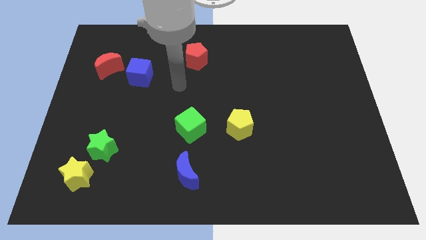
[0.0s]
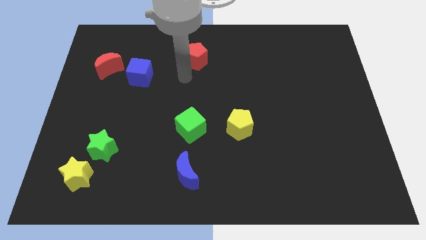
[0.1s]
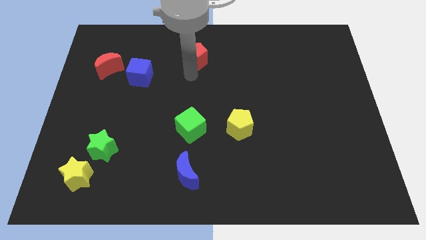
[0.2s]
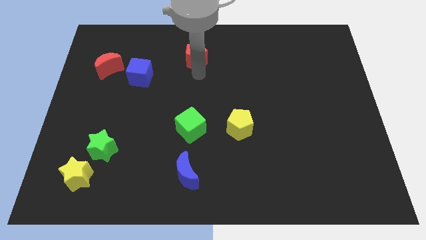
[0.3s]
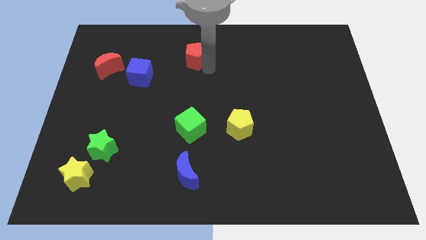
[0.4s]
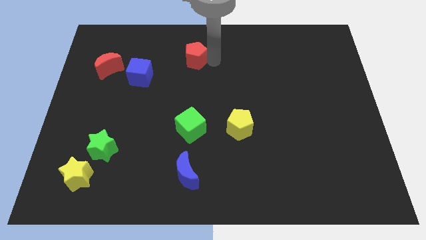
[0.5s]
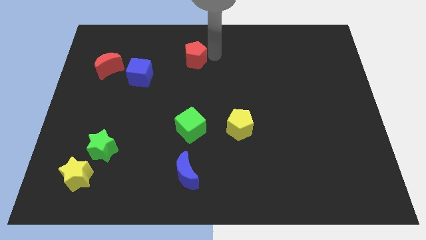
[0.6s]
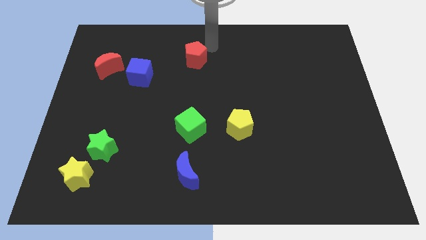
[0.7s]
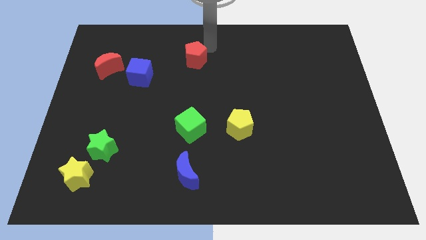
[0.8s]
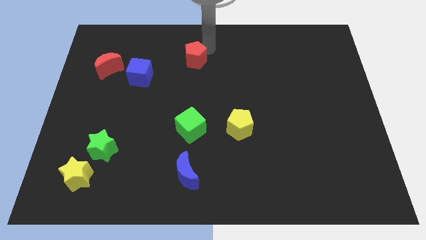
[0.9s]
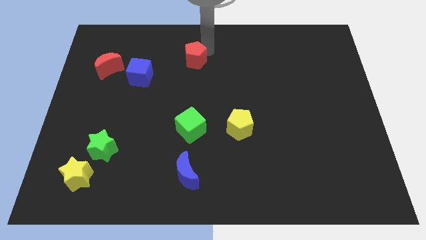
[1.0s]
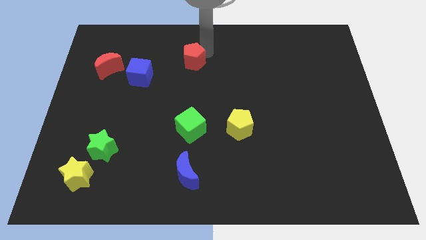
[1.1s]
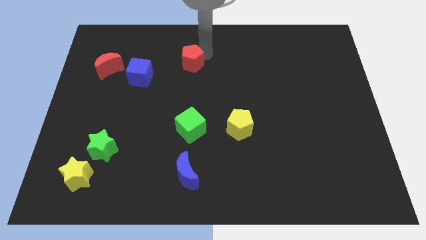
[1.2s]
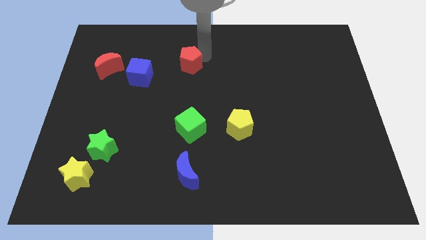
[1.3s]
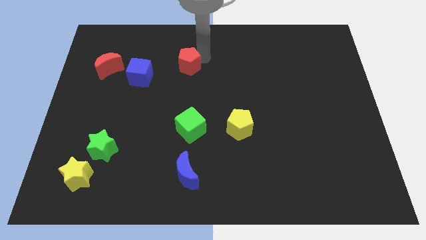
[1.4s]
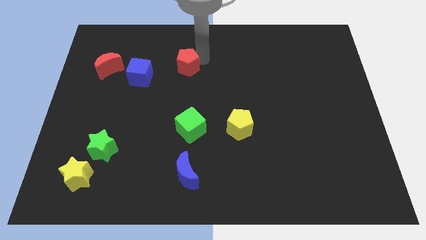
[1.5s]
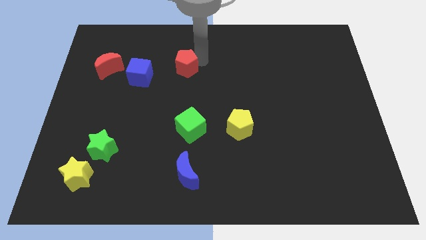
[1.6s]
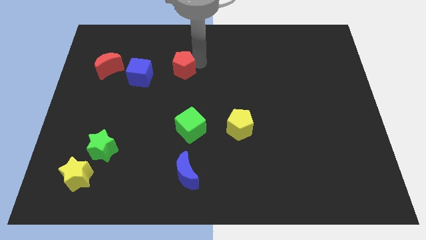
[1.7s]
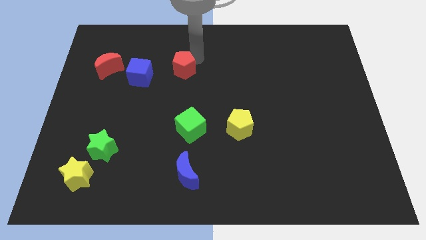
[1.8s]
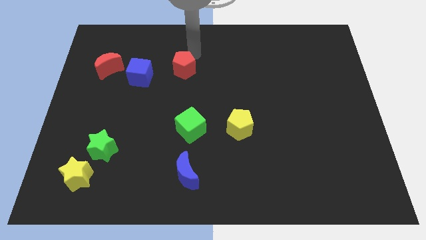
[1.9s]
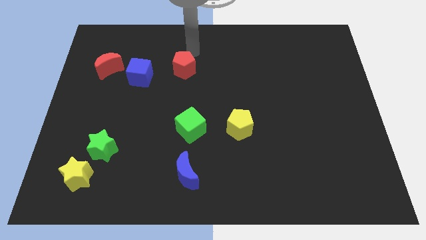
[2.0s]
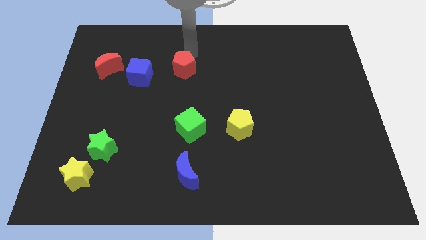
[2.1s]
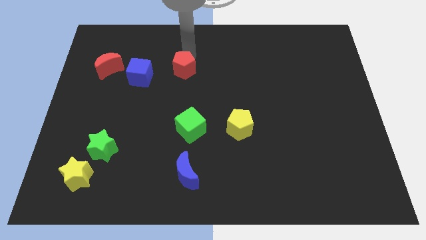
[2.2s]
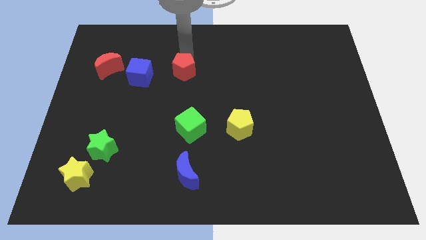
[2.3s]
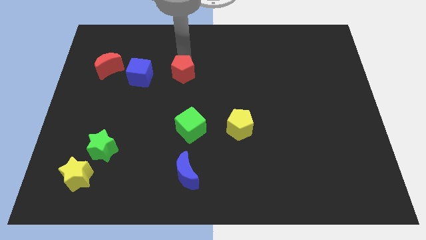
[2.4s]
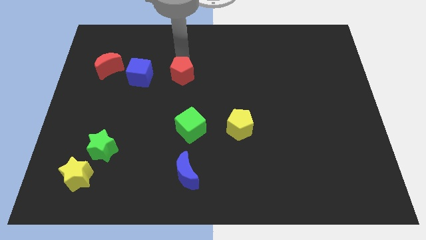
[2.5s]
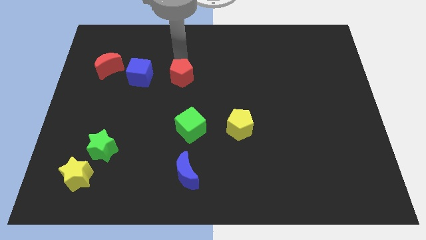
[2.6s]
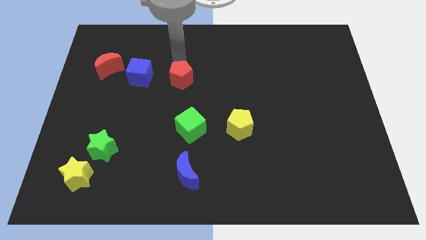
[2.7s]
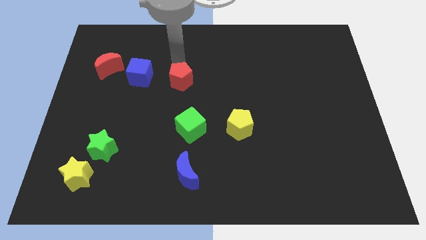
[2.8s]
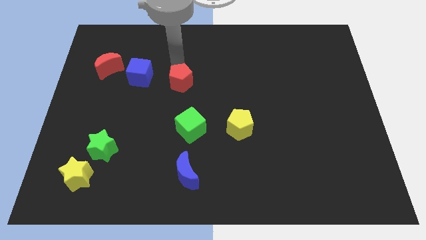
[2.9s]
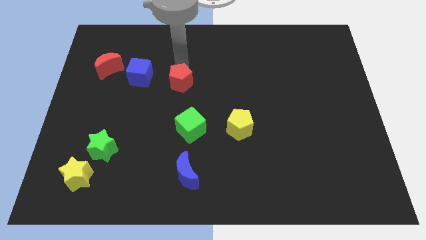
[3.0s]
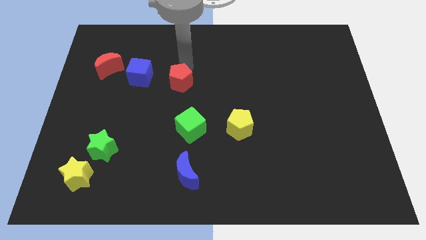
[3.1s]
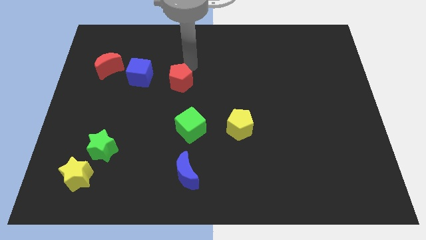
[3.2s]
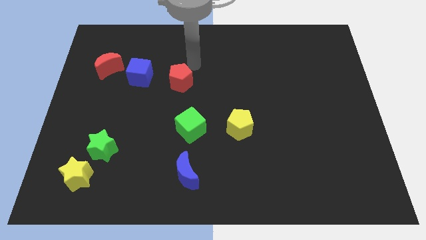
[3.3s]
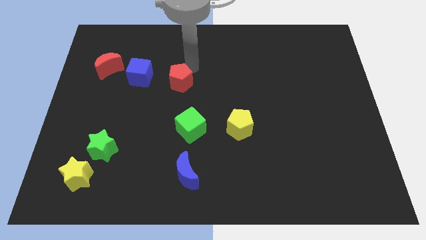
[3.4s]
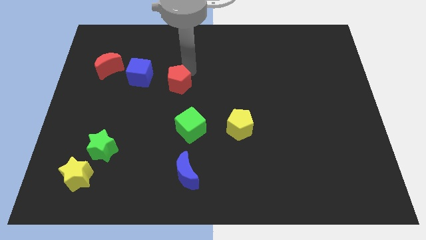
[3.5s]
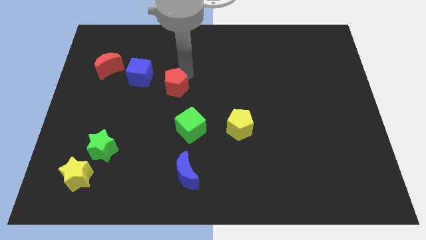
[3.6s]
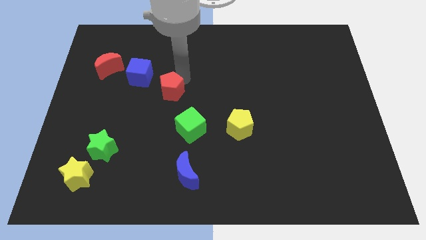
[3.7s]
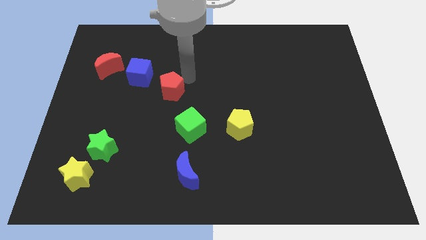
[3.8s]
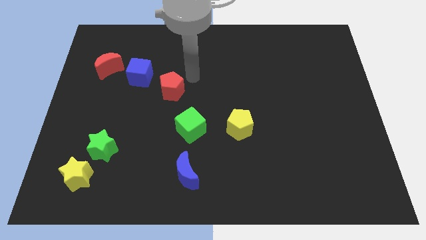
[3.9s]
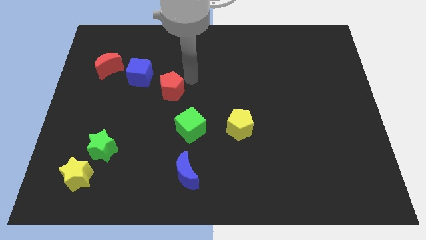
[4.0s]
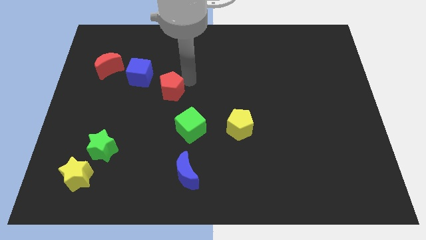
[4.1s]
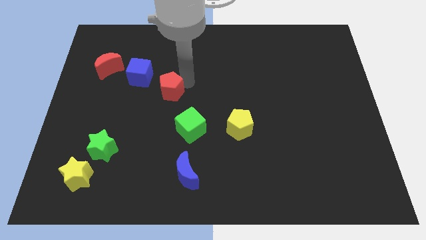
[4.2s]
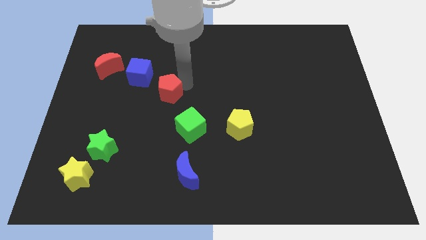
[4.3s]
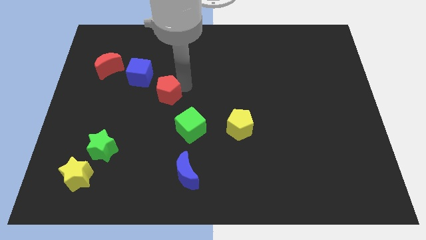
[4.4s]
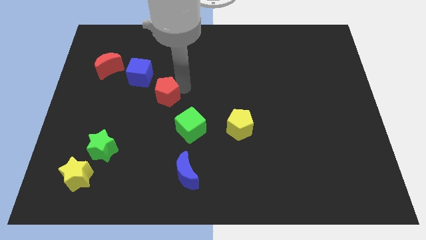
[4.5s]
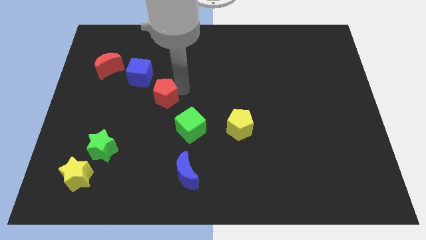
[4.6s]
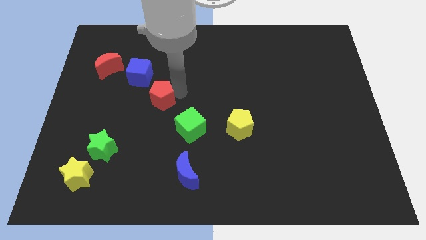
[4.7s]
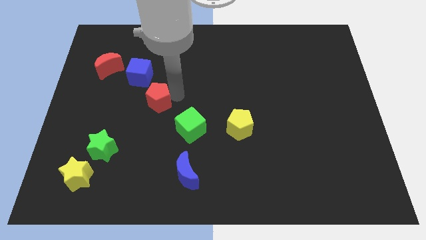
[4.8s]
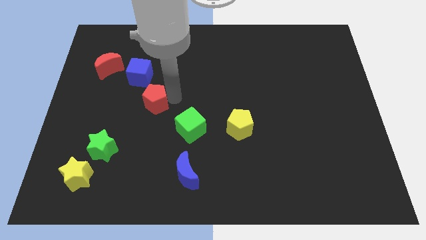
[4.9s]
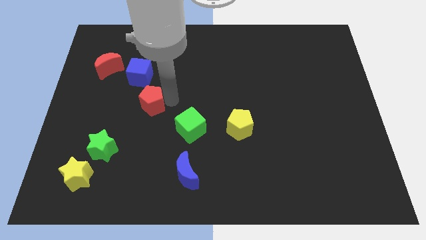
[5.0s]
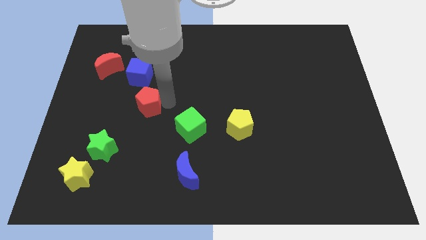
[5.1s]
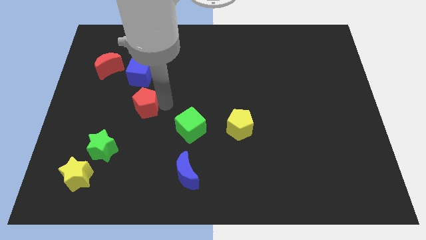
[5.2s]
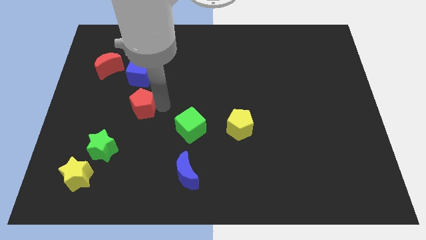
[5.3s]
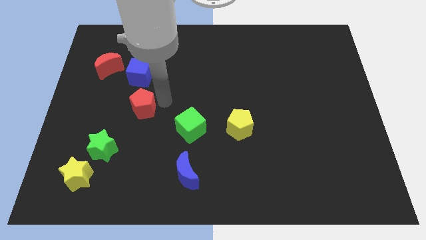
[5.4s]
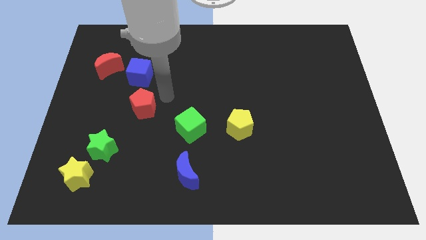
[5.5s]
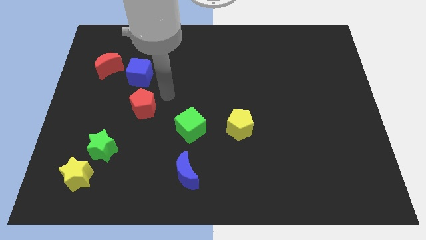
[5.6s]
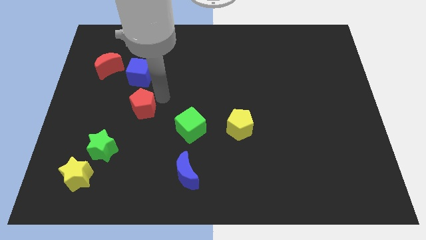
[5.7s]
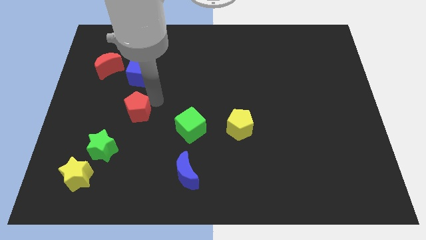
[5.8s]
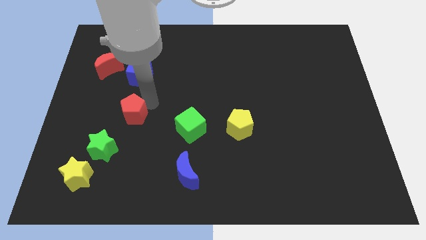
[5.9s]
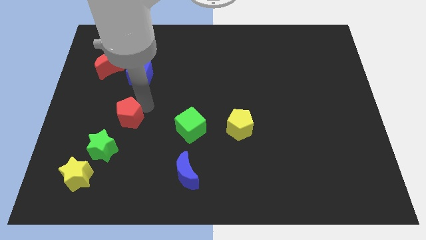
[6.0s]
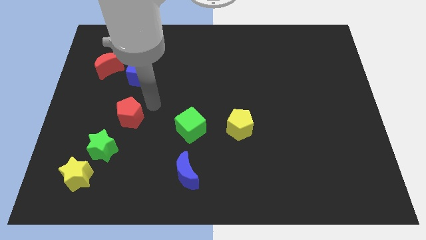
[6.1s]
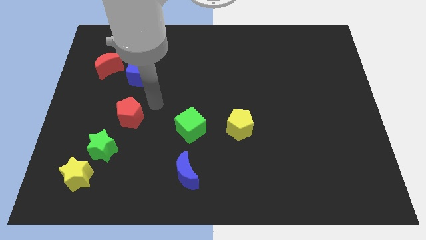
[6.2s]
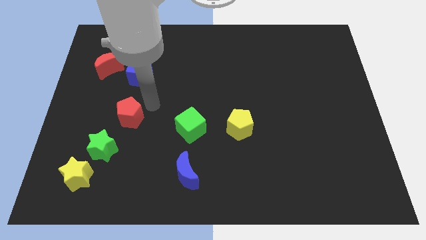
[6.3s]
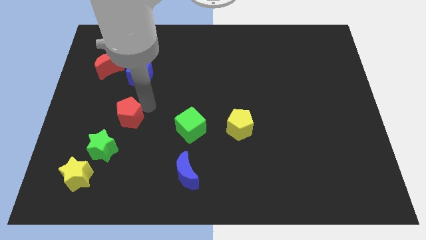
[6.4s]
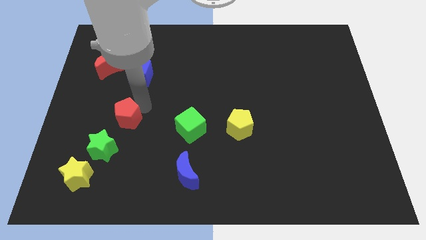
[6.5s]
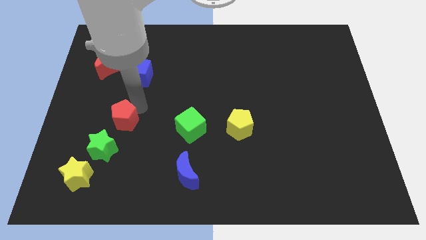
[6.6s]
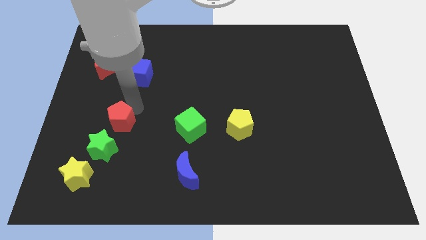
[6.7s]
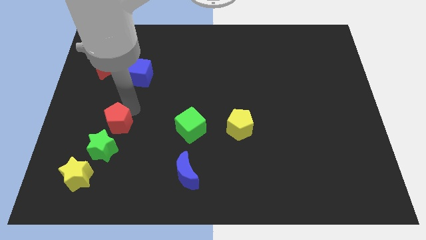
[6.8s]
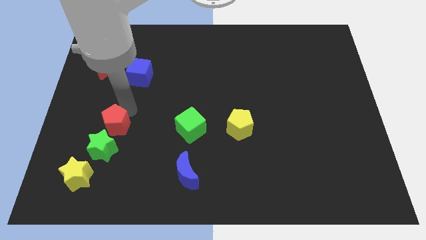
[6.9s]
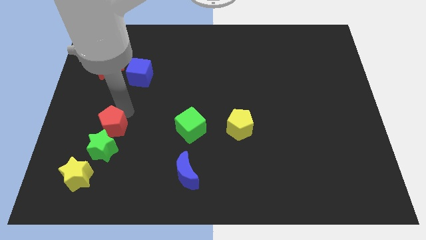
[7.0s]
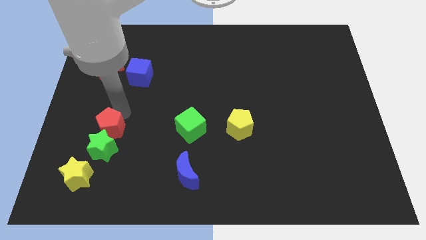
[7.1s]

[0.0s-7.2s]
slide the red pentagon to the top side of the yellow star

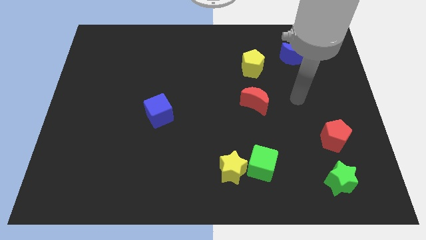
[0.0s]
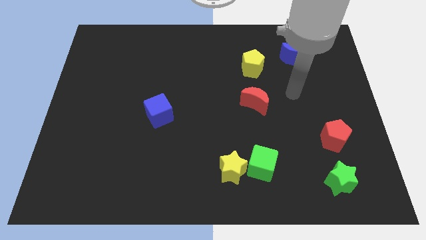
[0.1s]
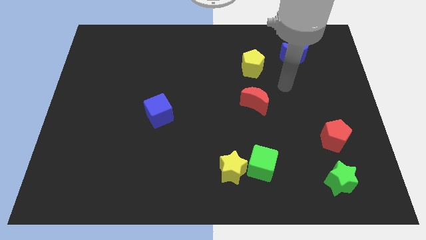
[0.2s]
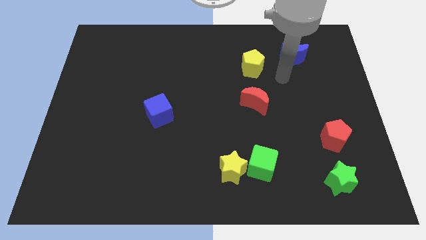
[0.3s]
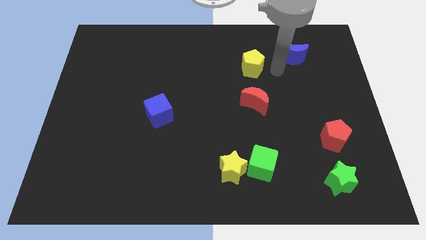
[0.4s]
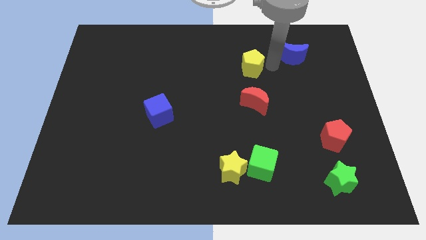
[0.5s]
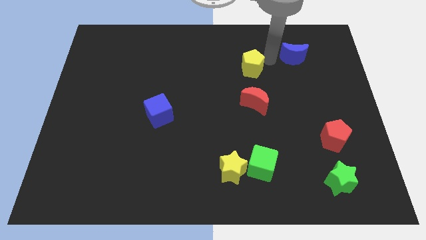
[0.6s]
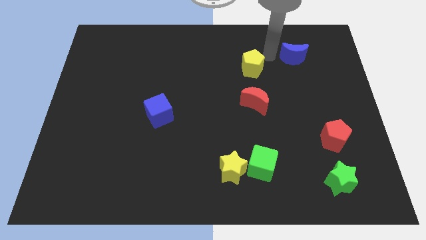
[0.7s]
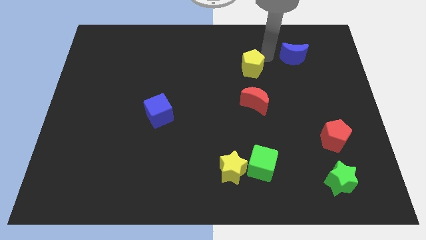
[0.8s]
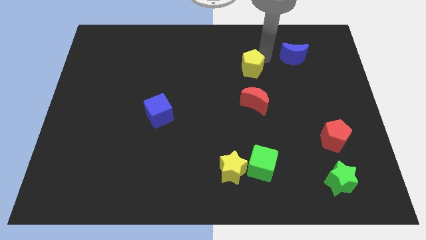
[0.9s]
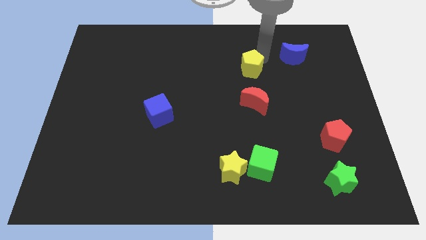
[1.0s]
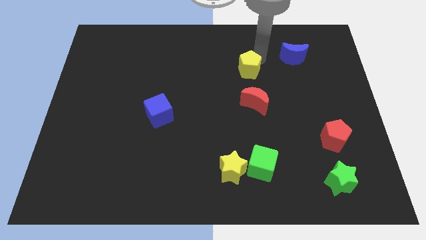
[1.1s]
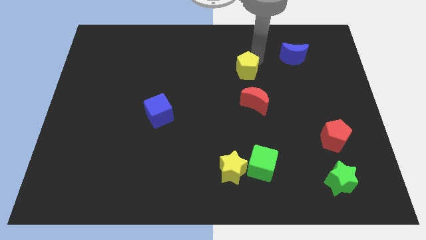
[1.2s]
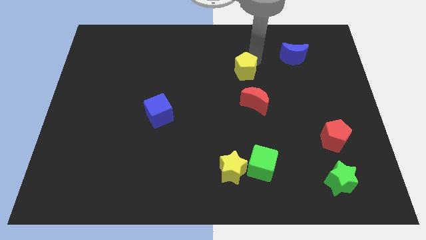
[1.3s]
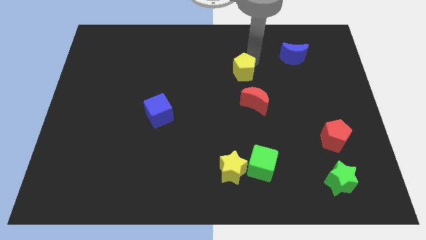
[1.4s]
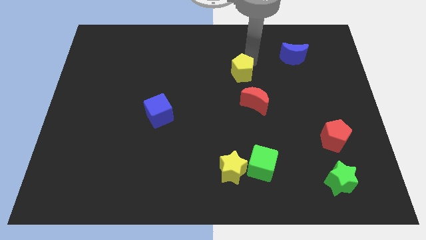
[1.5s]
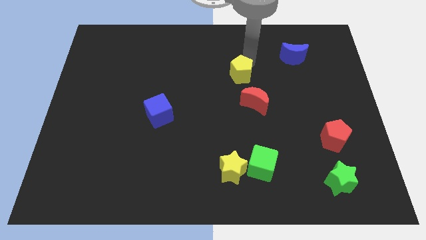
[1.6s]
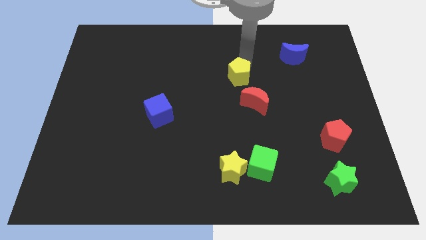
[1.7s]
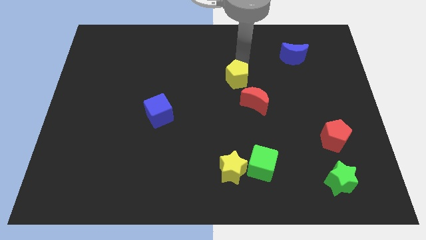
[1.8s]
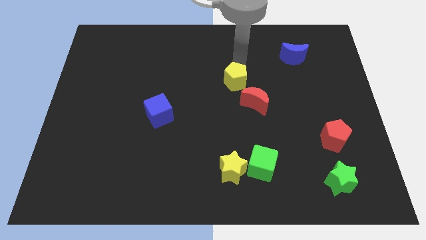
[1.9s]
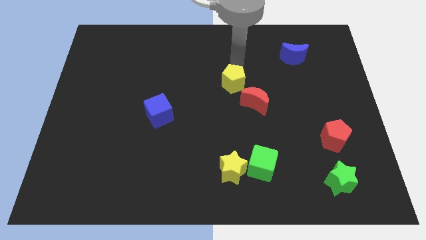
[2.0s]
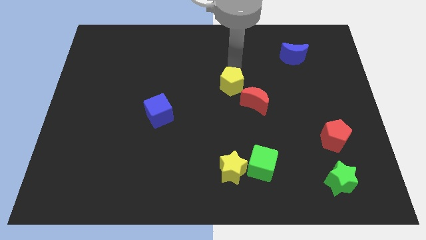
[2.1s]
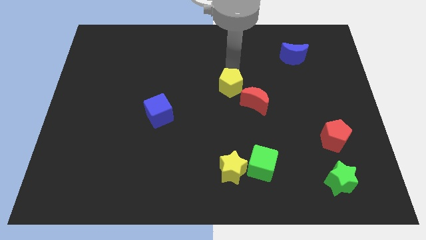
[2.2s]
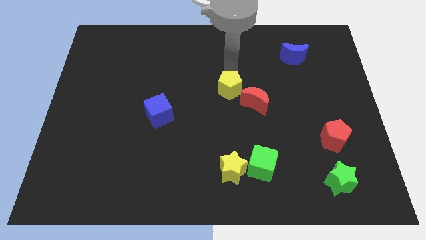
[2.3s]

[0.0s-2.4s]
push the yellow pentagon to the left side of the red moon
